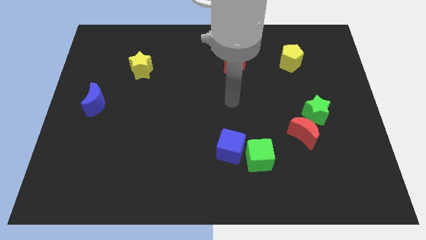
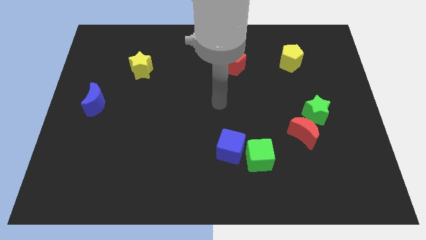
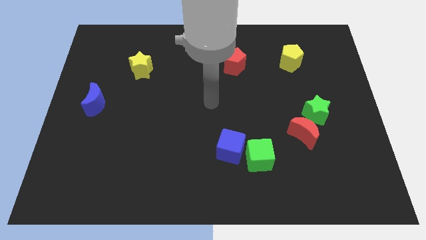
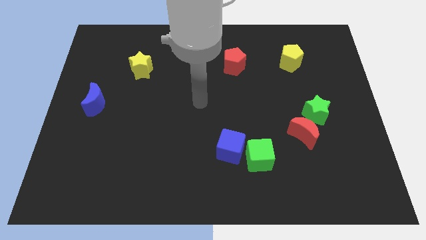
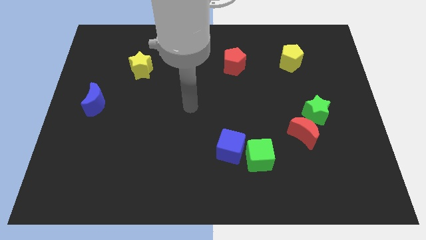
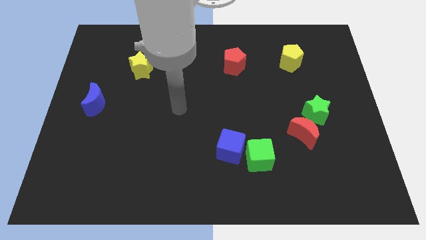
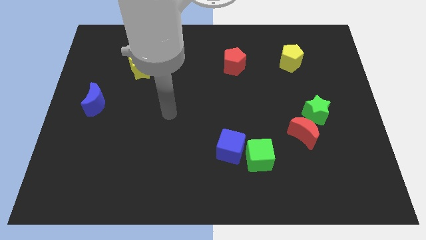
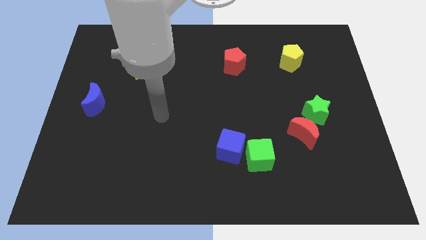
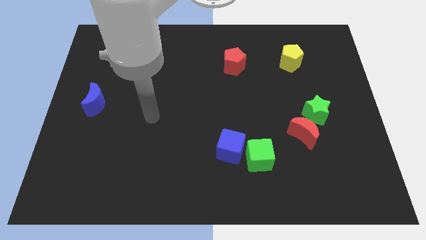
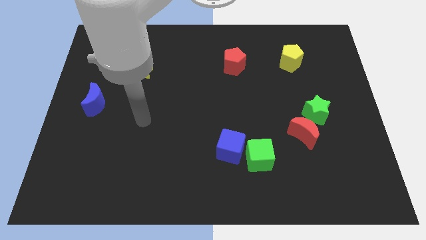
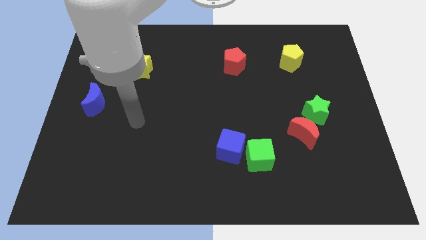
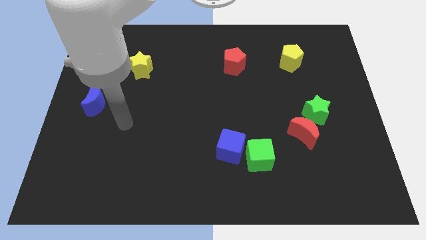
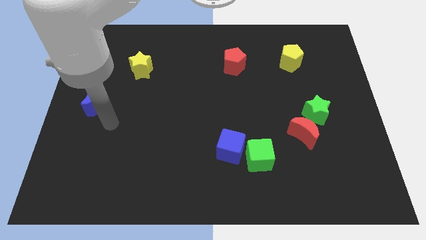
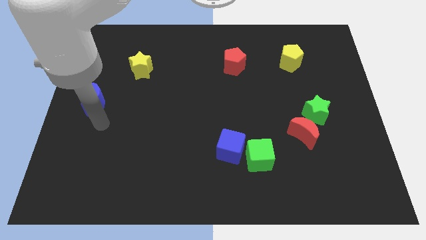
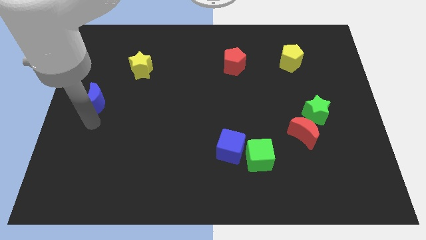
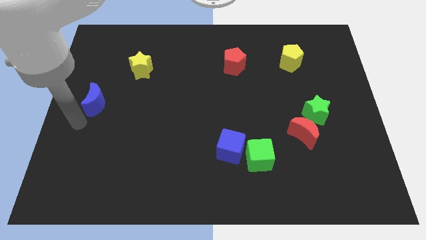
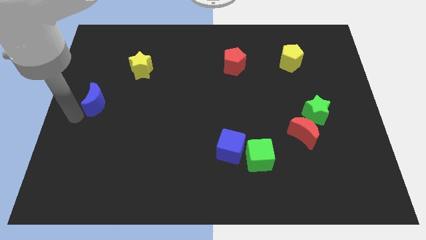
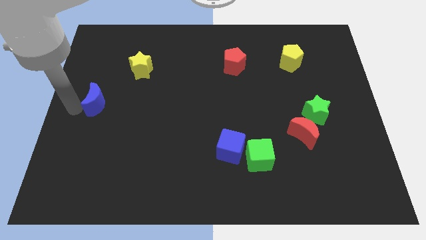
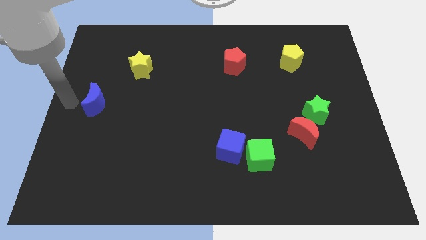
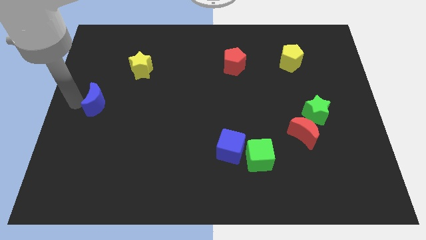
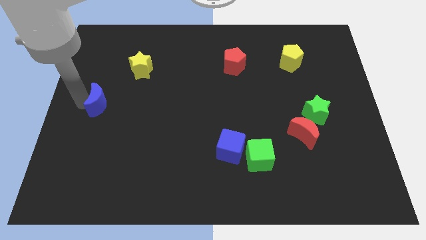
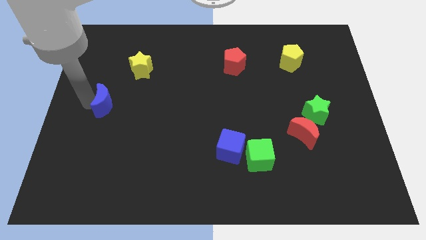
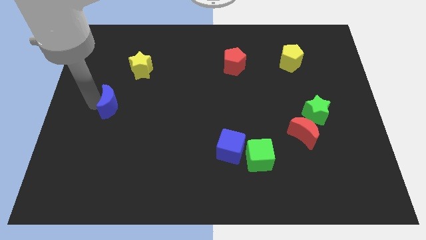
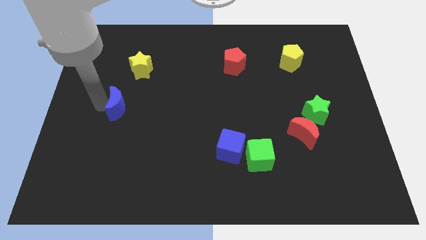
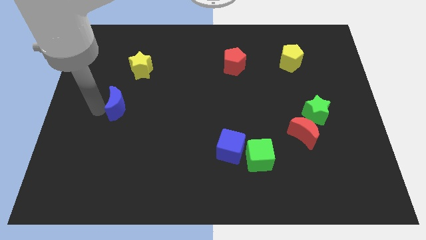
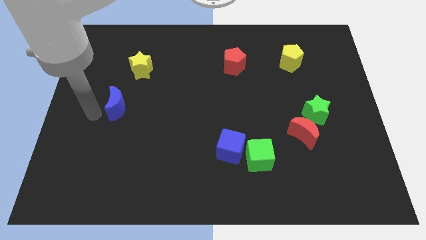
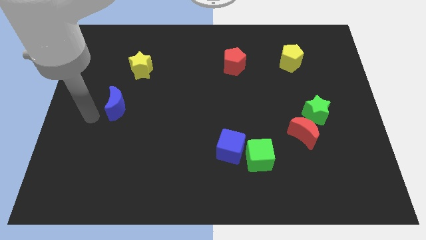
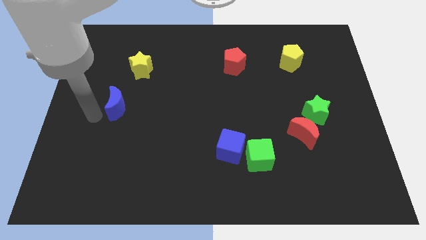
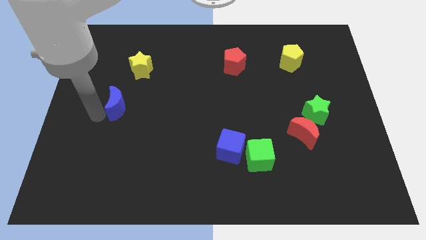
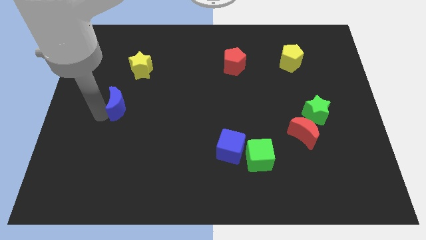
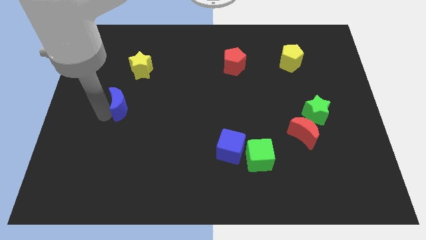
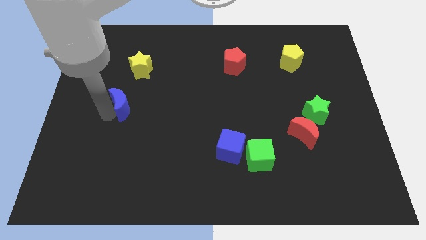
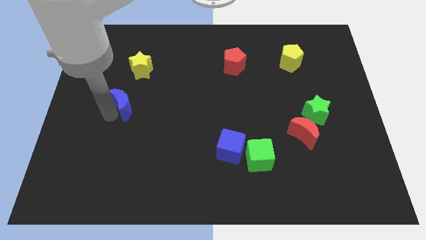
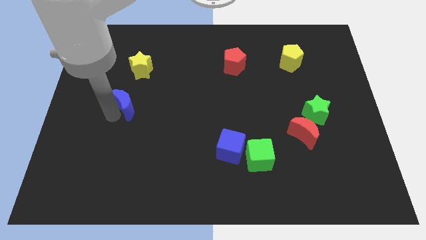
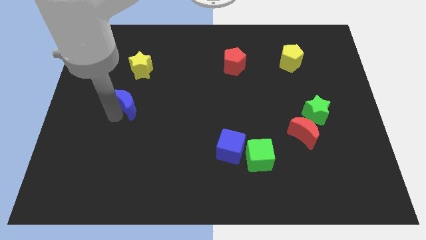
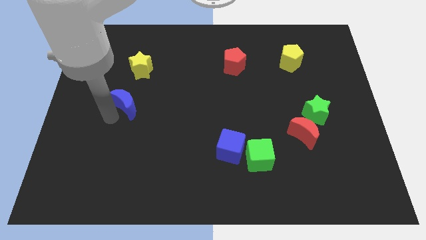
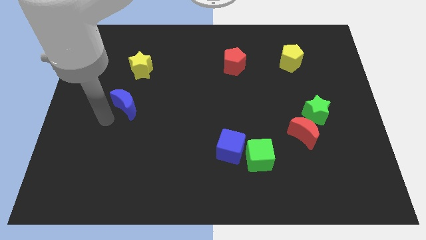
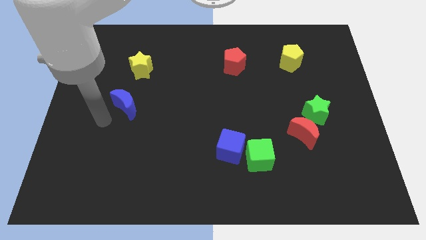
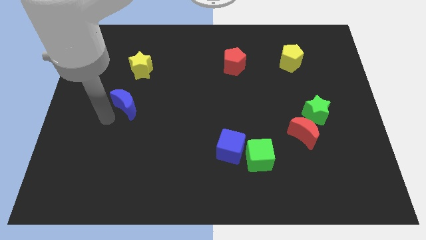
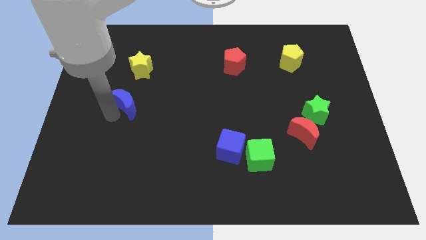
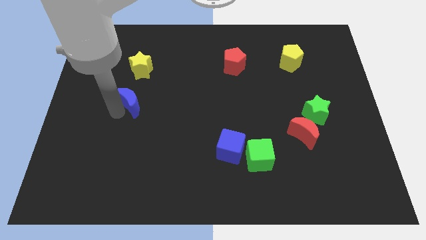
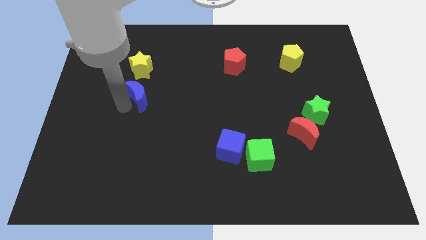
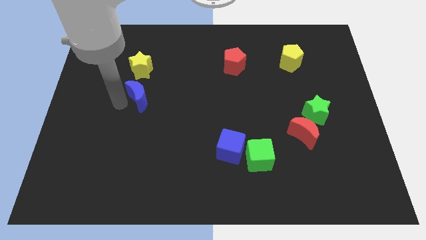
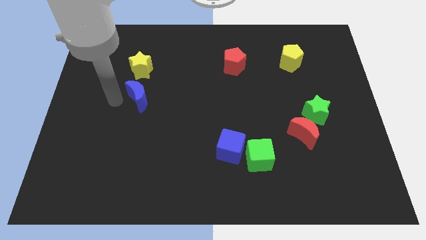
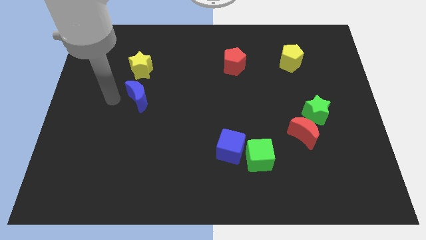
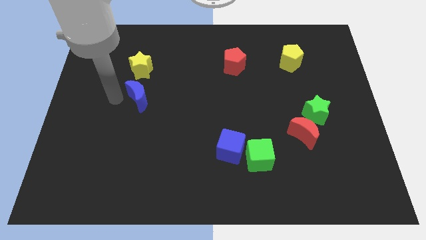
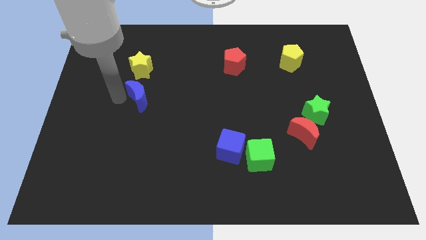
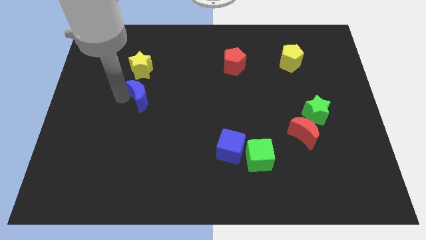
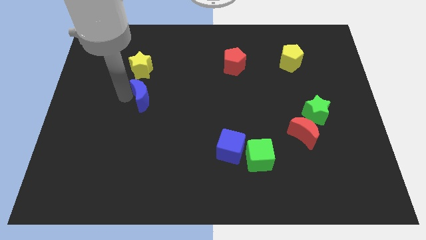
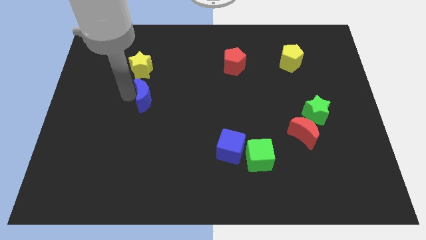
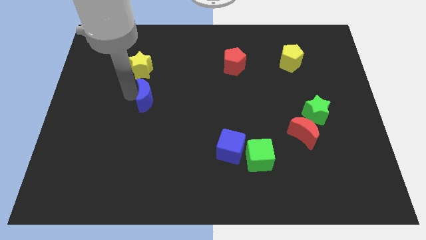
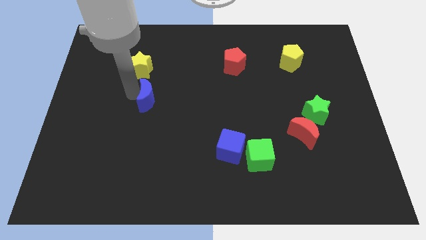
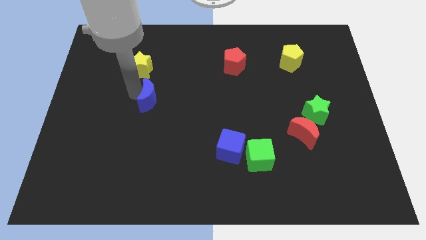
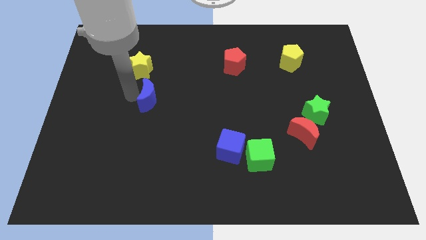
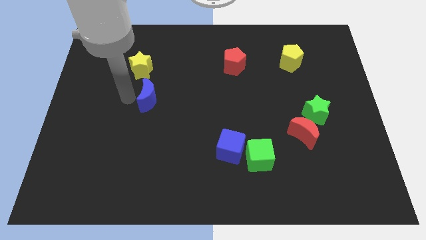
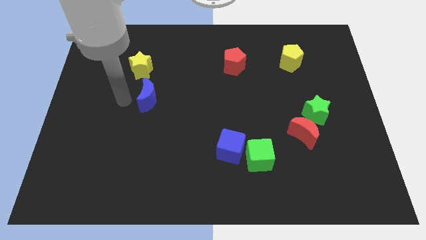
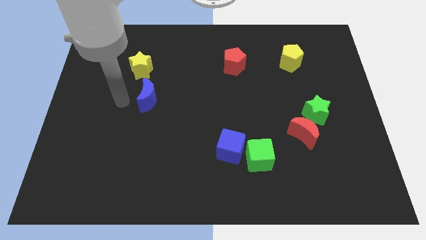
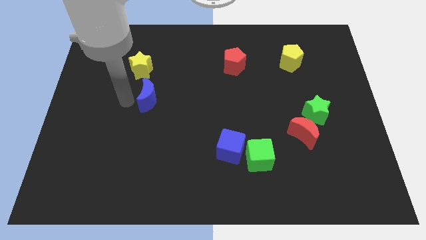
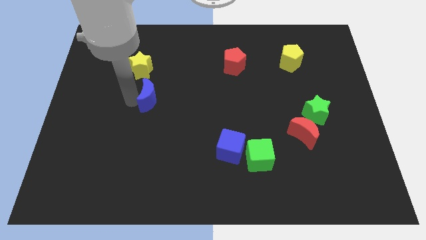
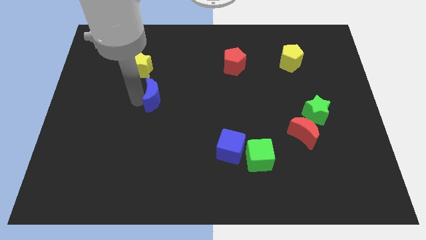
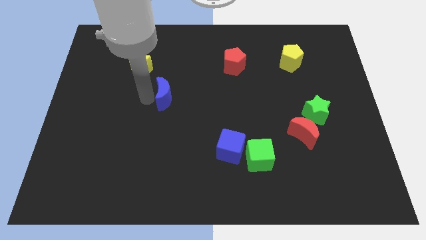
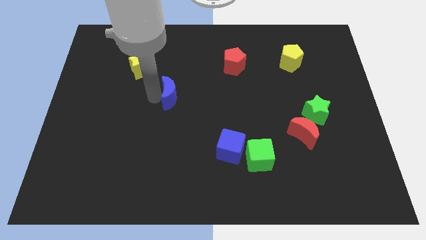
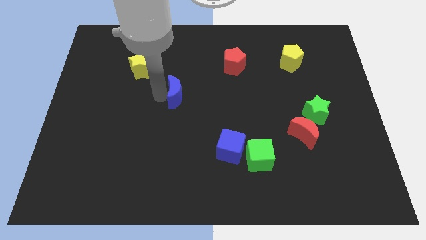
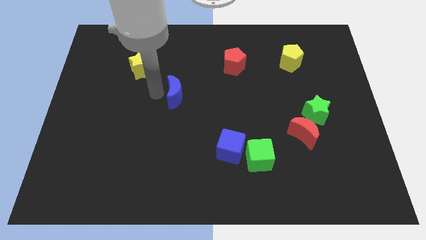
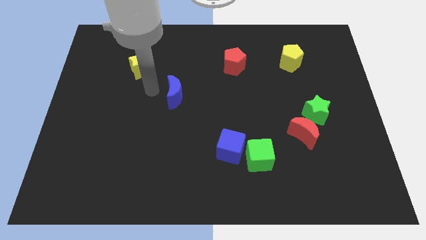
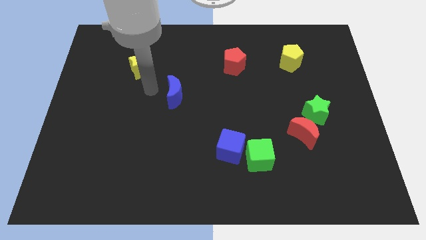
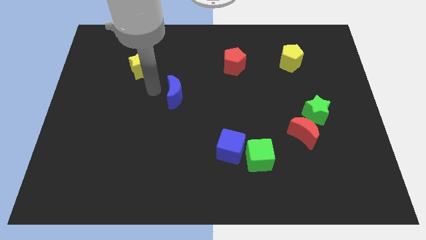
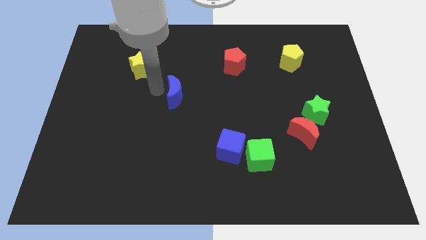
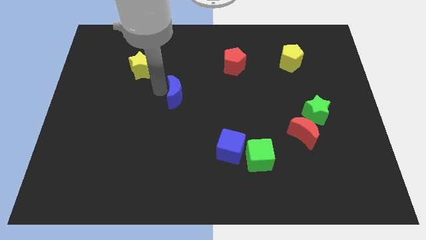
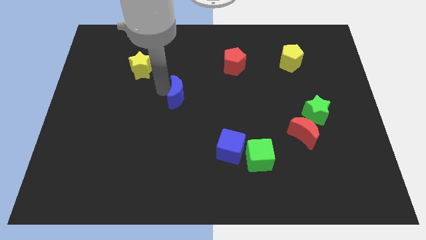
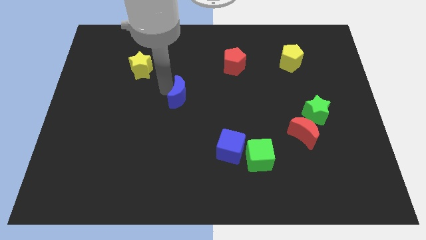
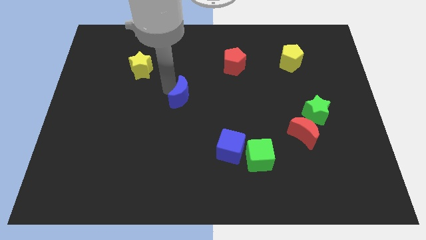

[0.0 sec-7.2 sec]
slide the blue moon right

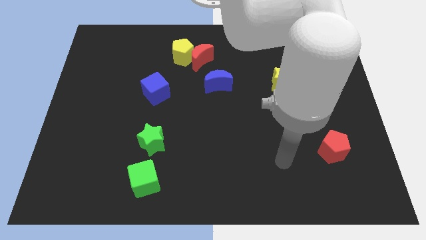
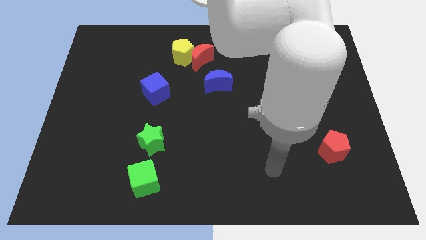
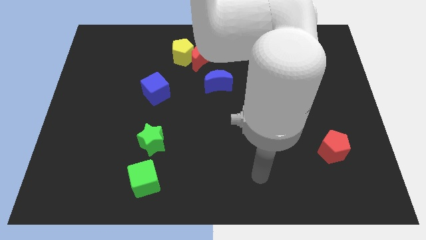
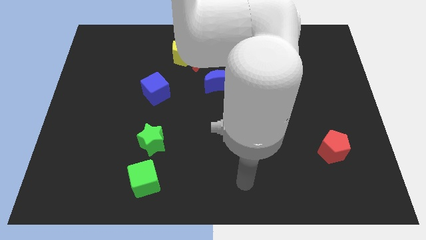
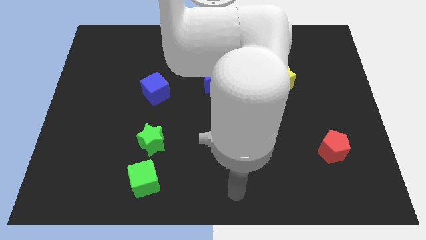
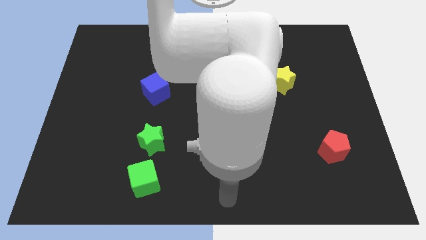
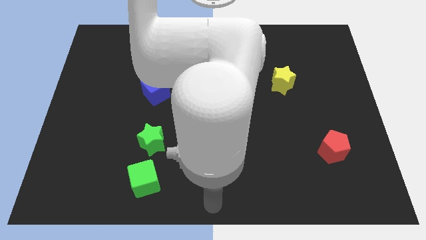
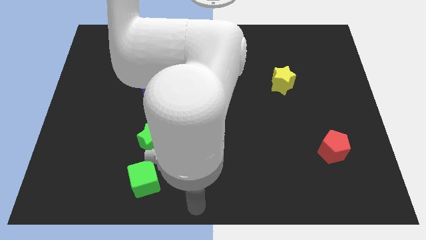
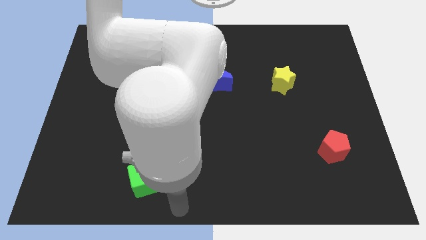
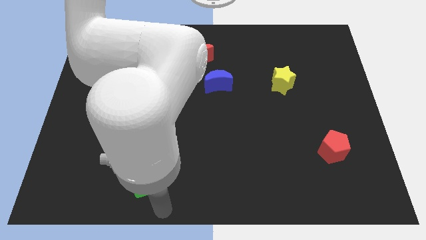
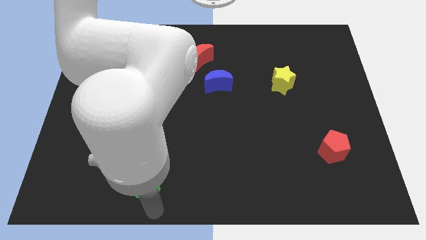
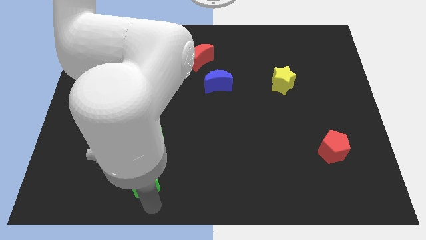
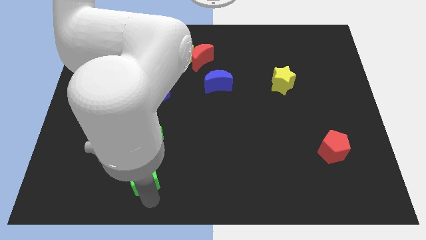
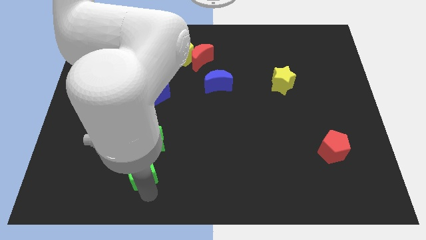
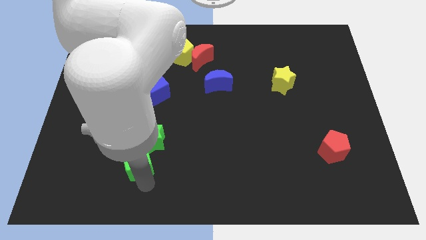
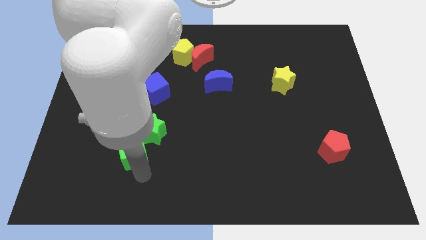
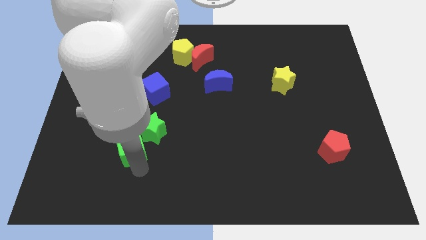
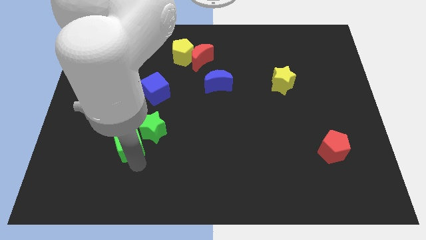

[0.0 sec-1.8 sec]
slightly push the green cube upwards
